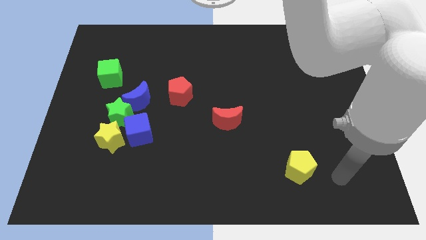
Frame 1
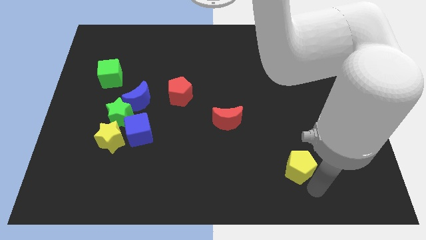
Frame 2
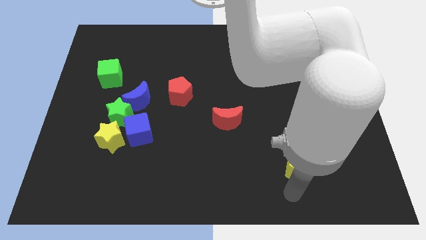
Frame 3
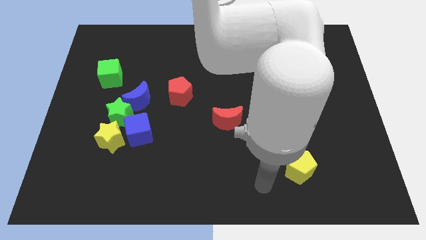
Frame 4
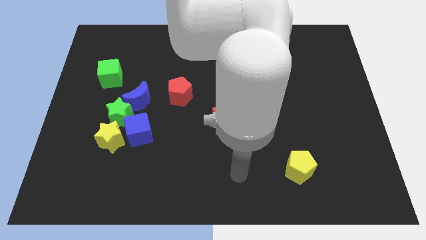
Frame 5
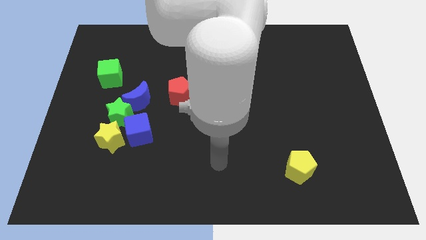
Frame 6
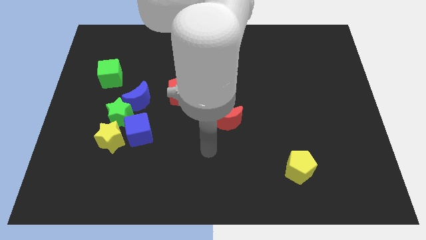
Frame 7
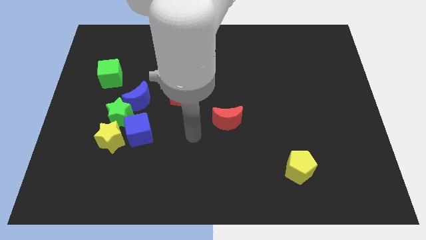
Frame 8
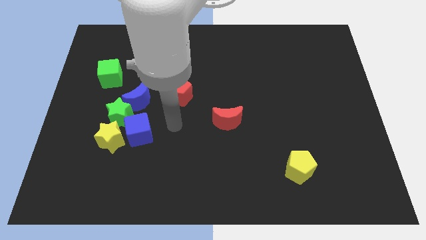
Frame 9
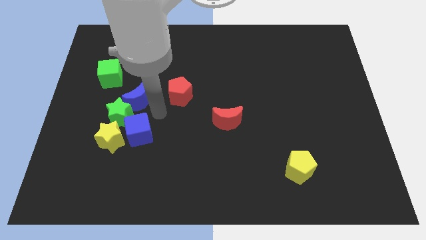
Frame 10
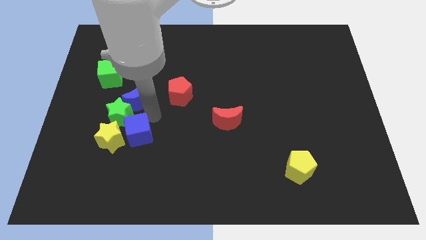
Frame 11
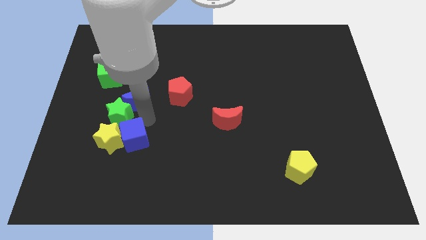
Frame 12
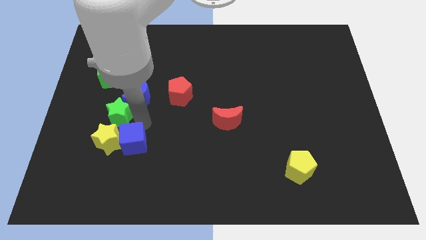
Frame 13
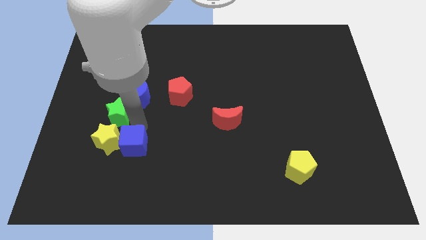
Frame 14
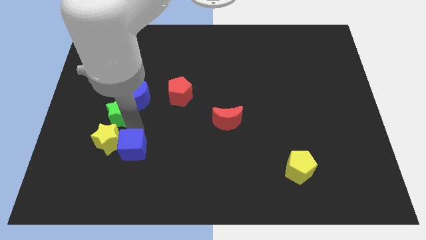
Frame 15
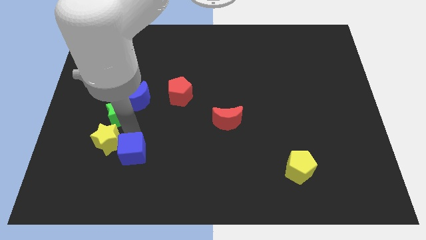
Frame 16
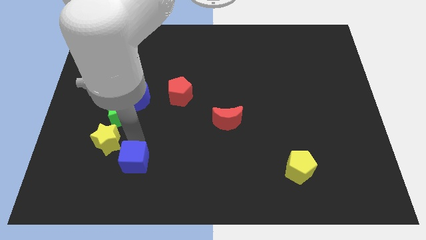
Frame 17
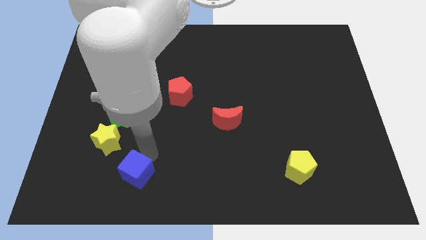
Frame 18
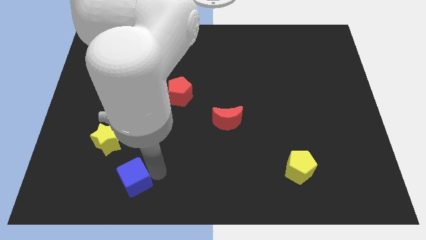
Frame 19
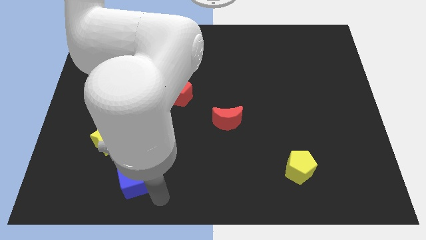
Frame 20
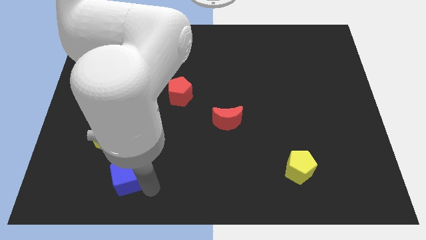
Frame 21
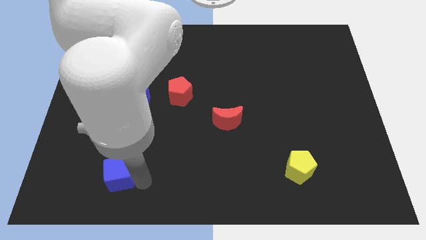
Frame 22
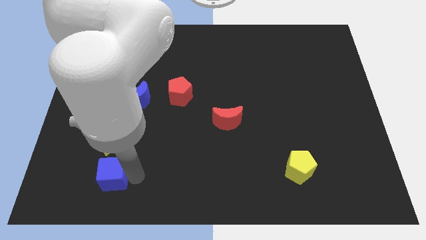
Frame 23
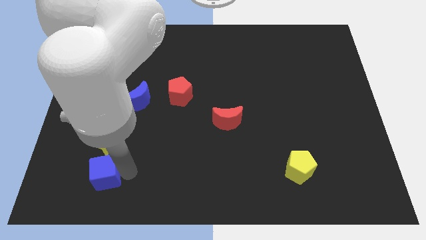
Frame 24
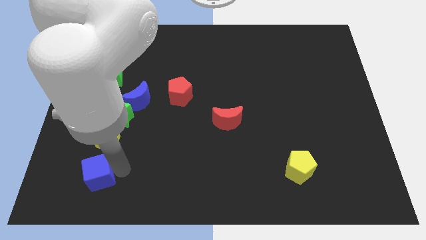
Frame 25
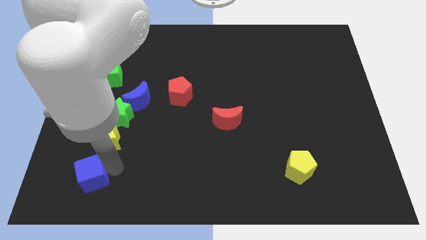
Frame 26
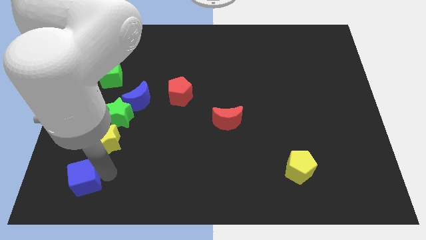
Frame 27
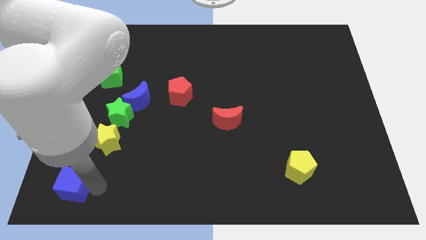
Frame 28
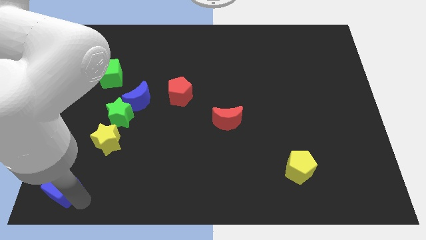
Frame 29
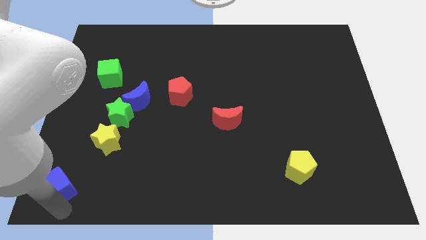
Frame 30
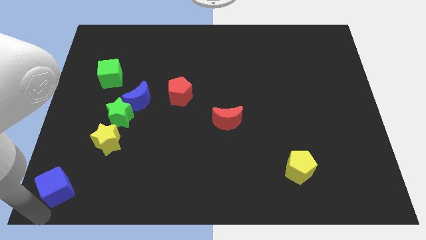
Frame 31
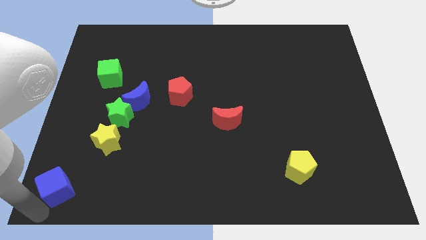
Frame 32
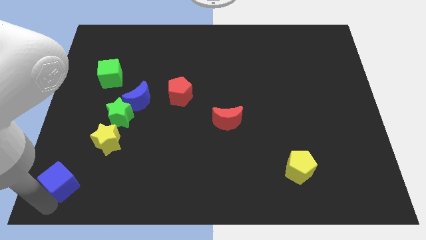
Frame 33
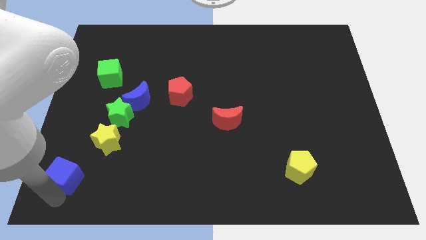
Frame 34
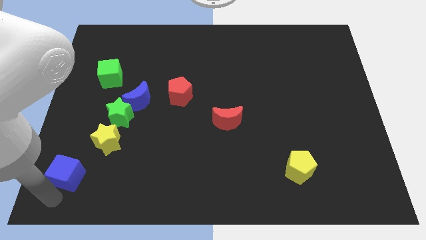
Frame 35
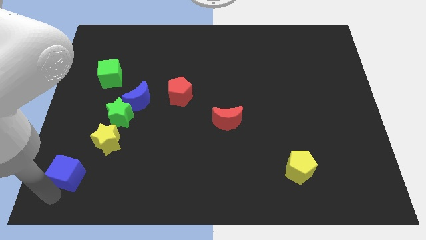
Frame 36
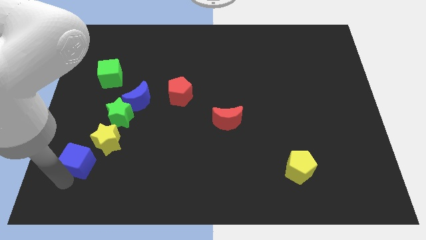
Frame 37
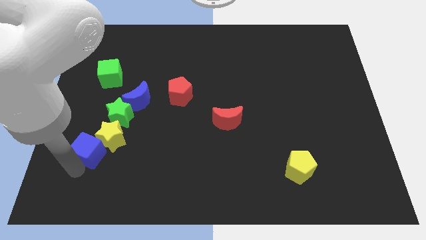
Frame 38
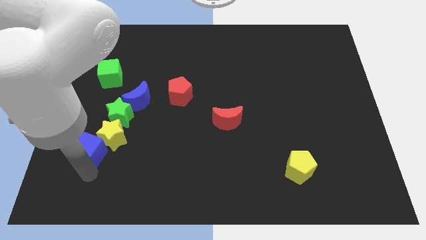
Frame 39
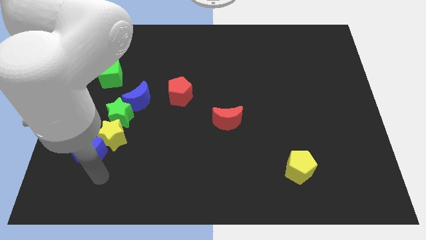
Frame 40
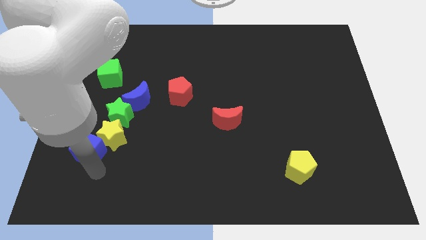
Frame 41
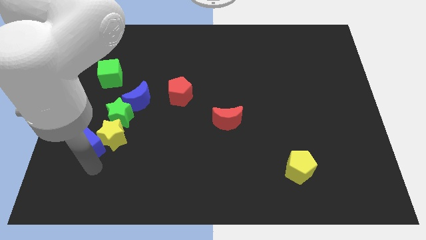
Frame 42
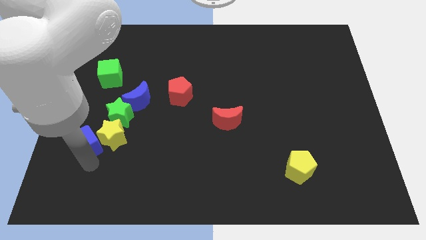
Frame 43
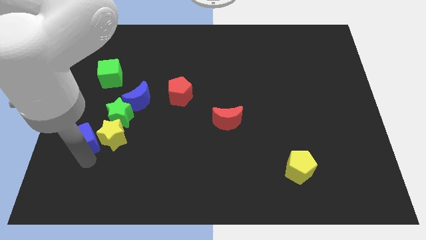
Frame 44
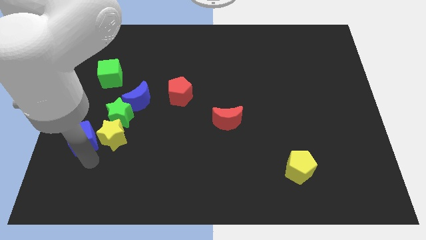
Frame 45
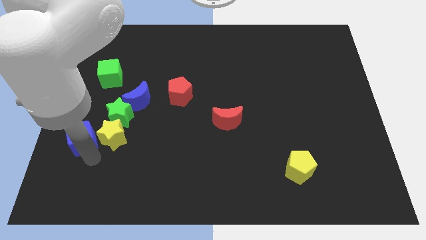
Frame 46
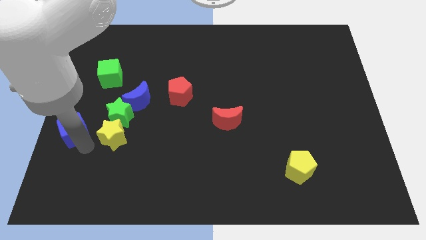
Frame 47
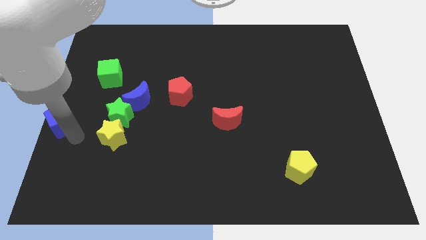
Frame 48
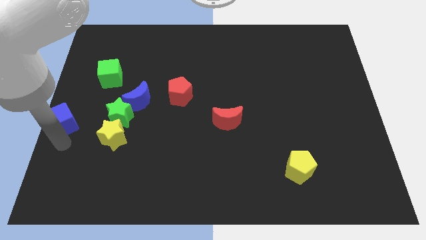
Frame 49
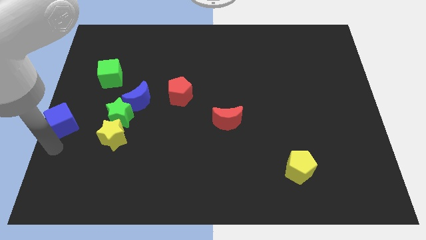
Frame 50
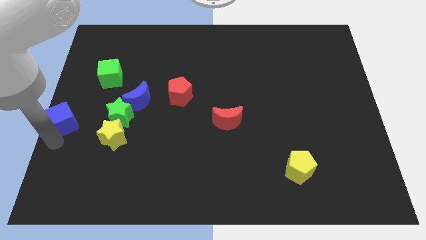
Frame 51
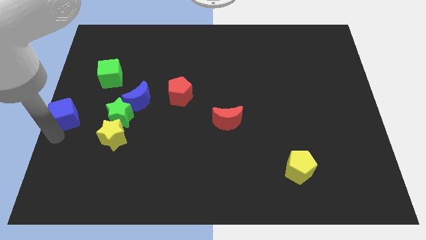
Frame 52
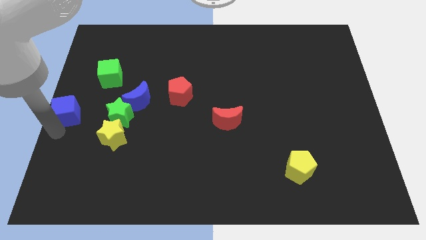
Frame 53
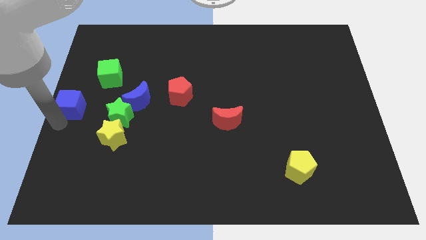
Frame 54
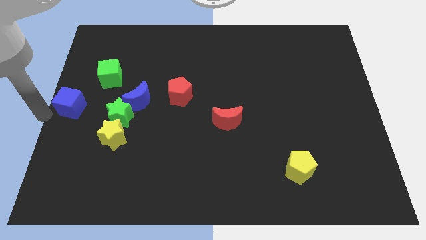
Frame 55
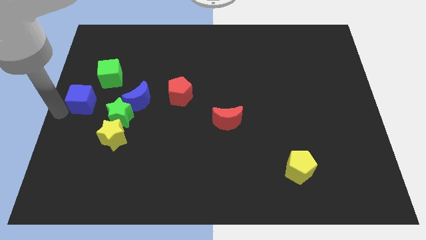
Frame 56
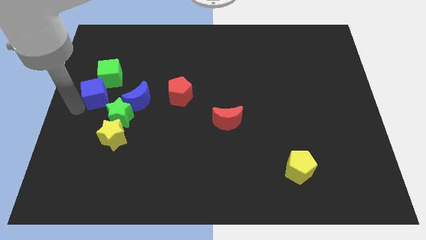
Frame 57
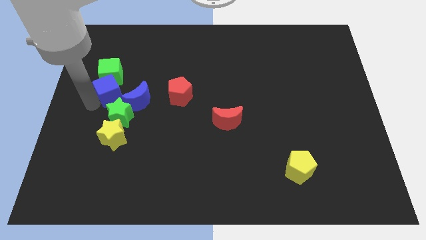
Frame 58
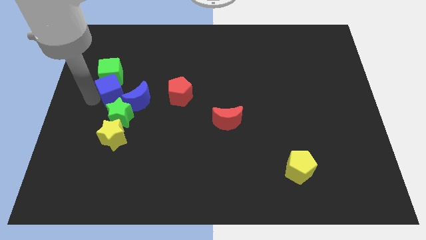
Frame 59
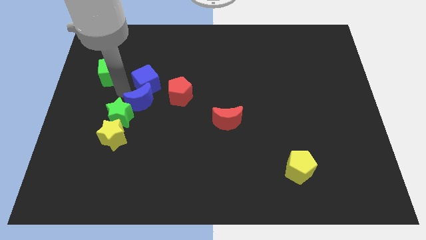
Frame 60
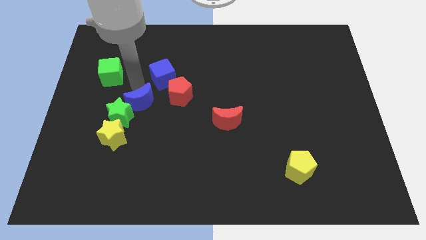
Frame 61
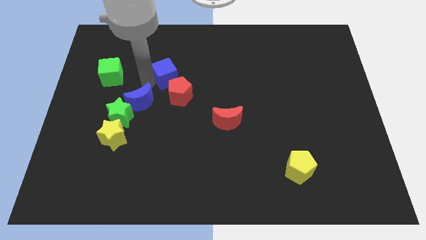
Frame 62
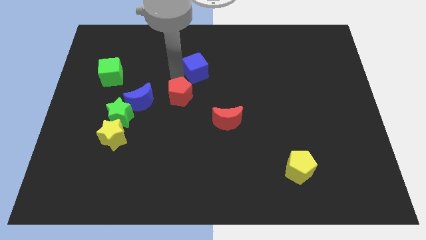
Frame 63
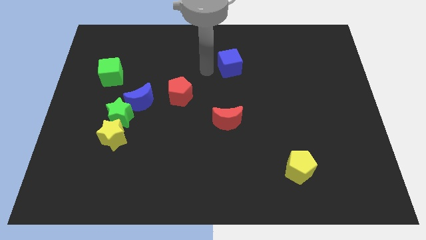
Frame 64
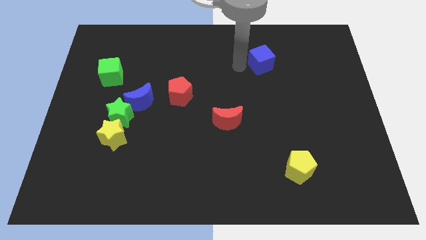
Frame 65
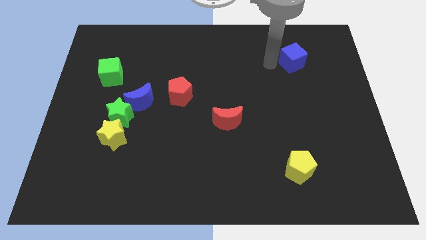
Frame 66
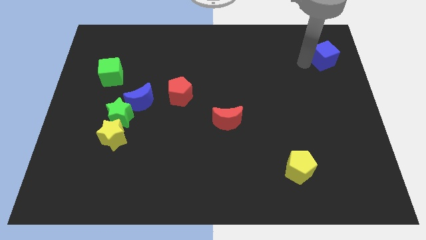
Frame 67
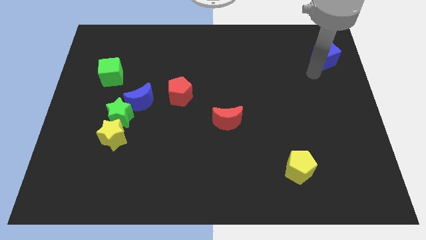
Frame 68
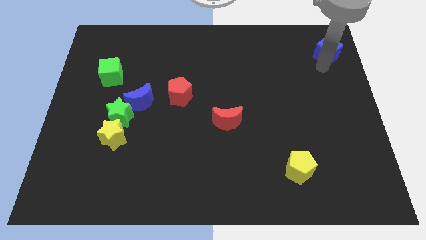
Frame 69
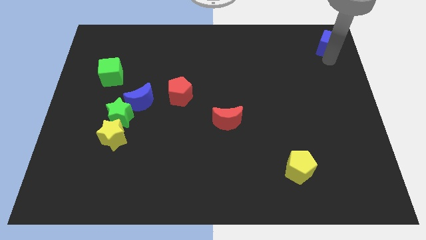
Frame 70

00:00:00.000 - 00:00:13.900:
push the blue cube to the top right of the board
